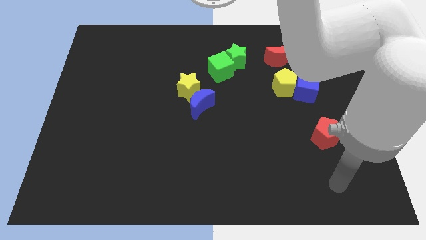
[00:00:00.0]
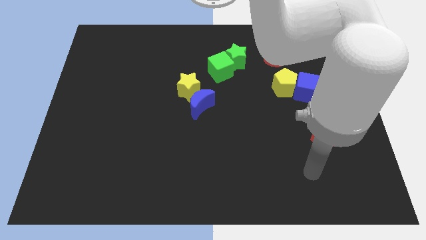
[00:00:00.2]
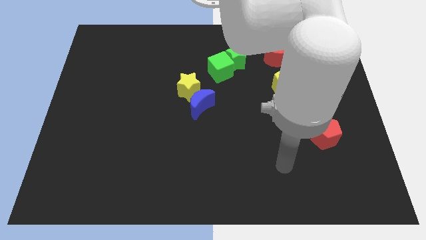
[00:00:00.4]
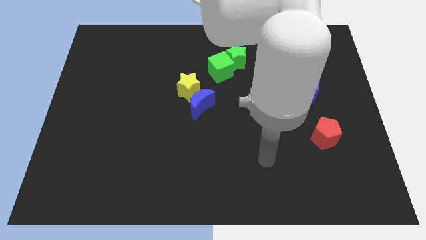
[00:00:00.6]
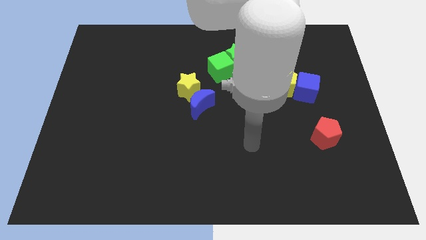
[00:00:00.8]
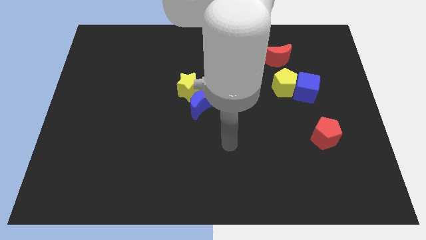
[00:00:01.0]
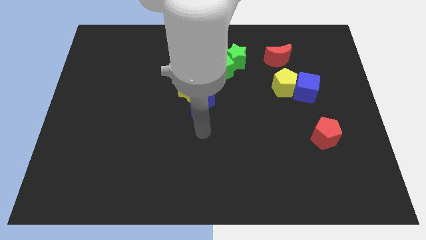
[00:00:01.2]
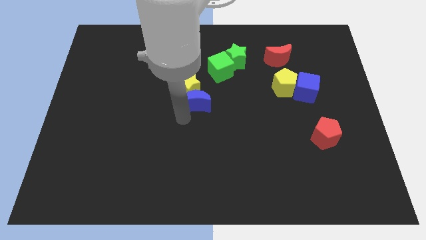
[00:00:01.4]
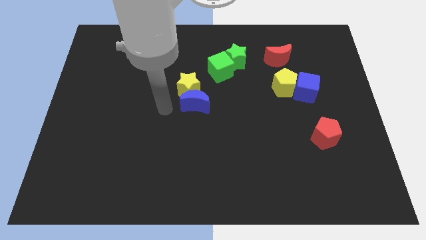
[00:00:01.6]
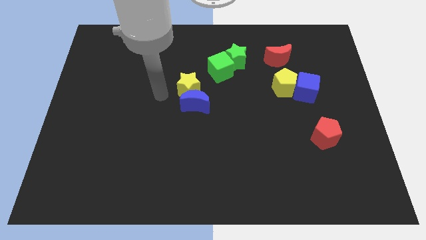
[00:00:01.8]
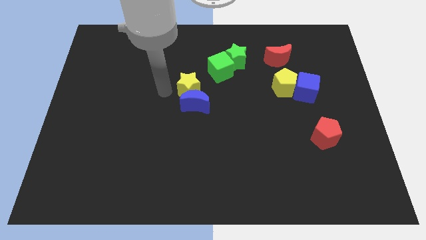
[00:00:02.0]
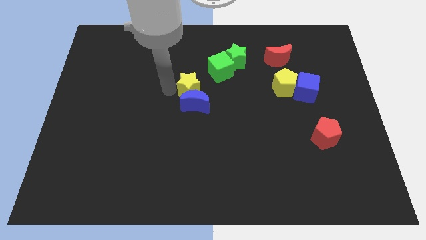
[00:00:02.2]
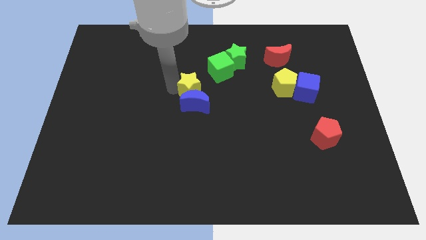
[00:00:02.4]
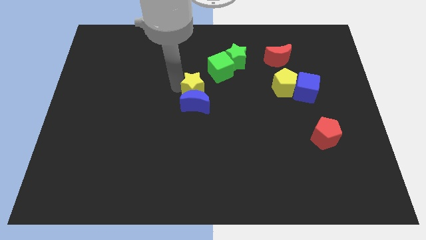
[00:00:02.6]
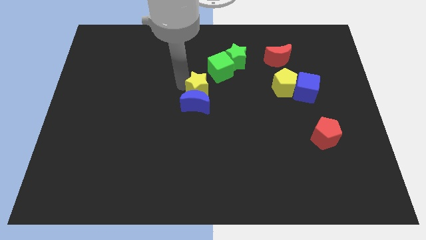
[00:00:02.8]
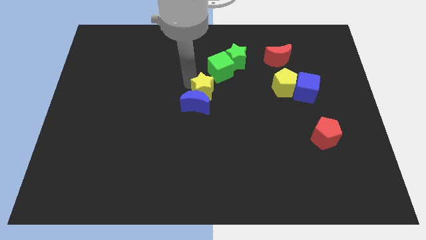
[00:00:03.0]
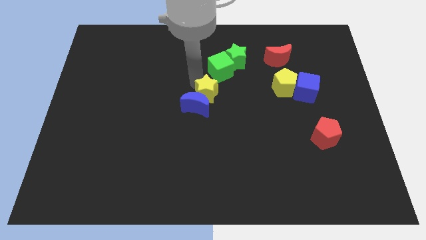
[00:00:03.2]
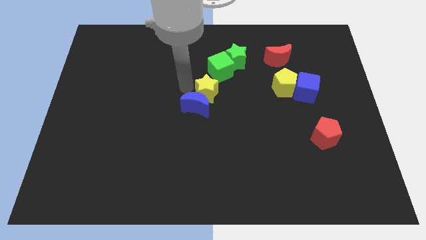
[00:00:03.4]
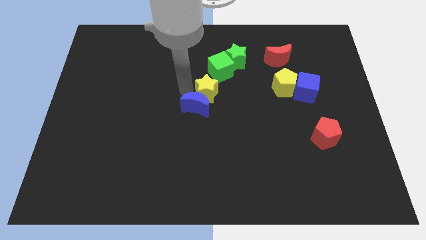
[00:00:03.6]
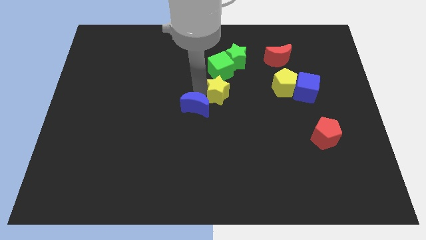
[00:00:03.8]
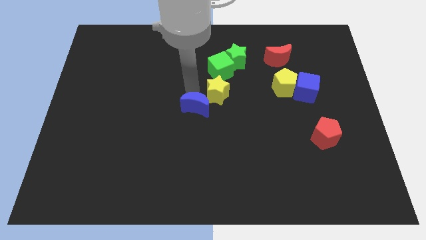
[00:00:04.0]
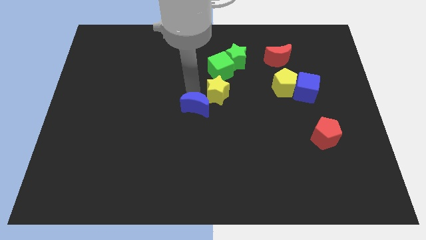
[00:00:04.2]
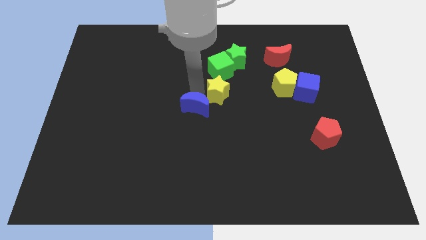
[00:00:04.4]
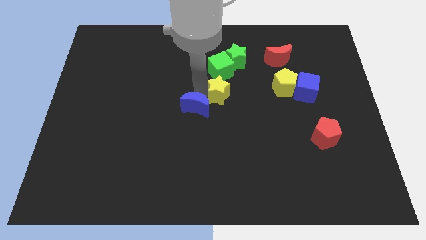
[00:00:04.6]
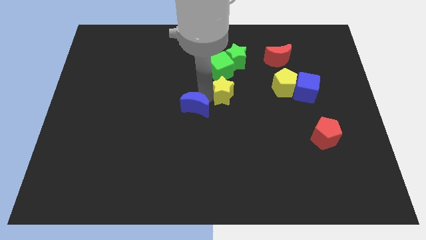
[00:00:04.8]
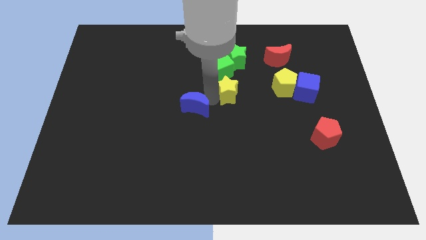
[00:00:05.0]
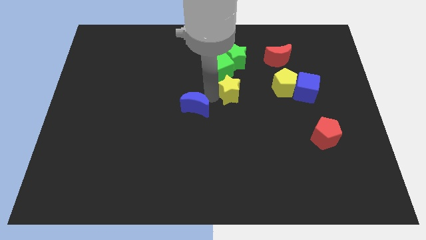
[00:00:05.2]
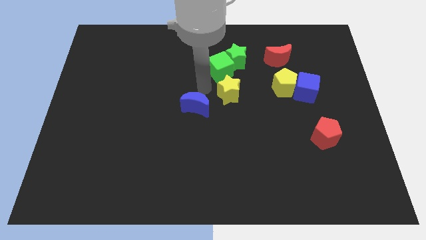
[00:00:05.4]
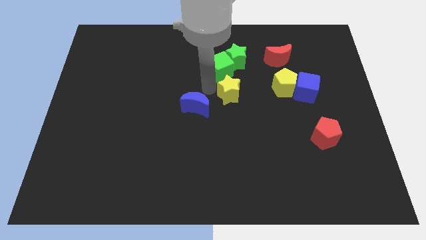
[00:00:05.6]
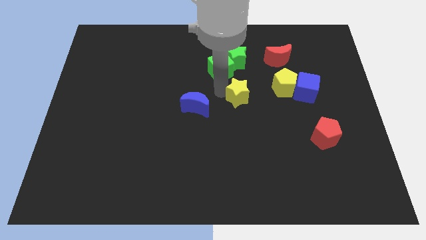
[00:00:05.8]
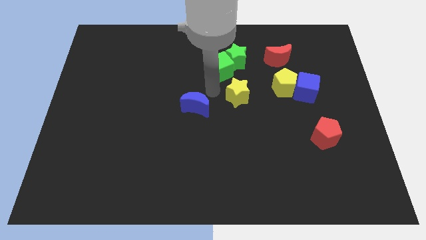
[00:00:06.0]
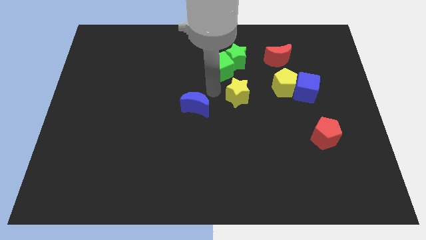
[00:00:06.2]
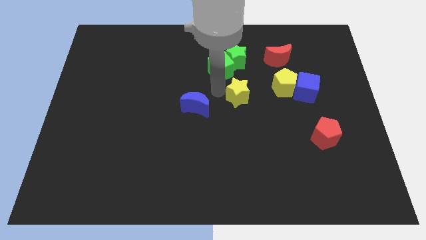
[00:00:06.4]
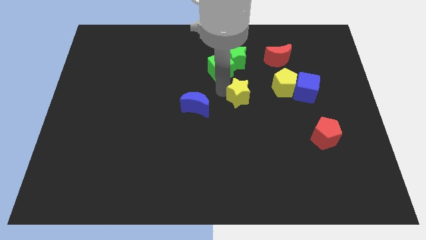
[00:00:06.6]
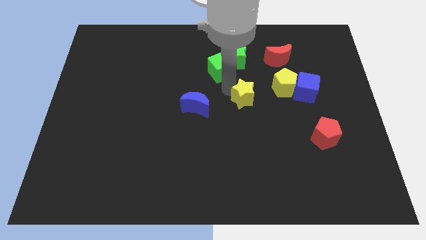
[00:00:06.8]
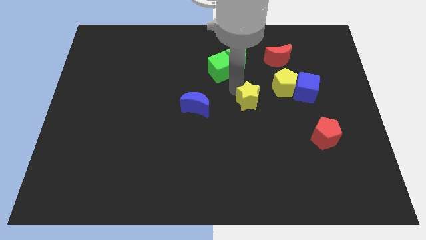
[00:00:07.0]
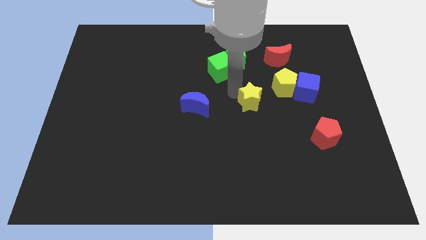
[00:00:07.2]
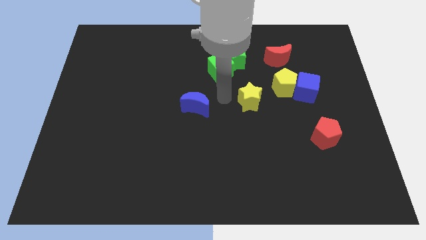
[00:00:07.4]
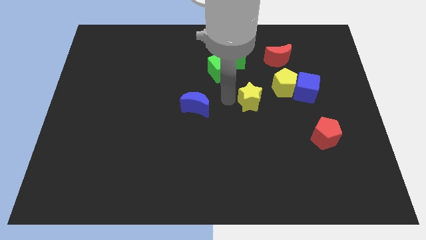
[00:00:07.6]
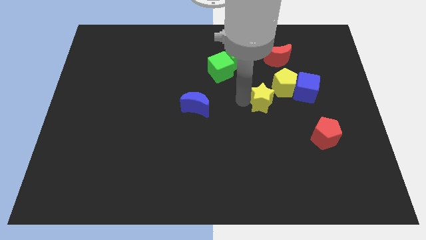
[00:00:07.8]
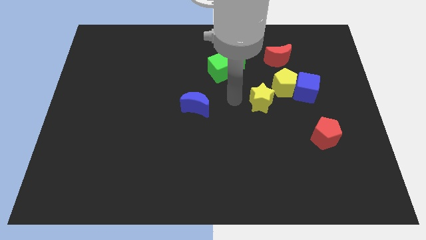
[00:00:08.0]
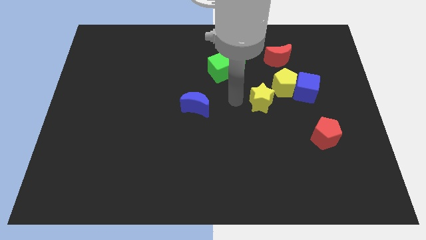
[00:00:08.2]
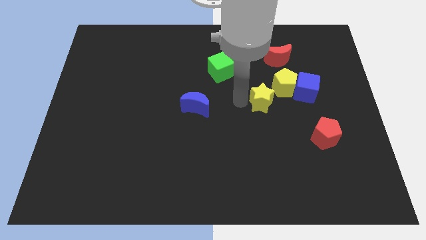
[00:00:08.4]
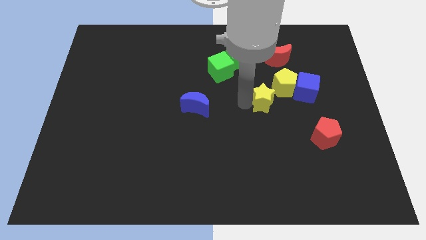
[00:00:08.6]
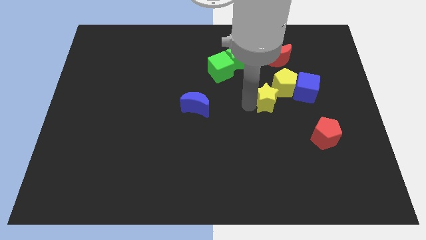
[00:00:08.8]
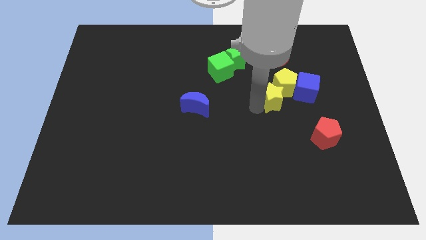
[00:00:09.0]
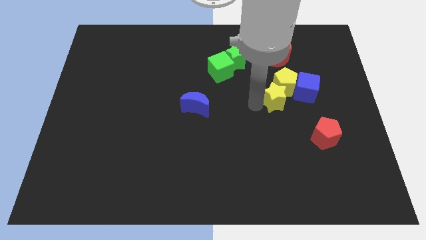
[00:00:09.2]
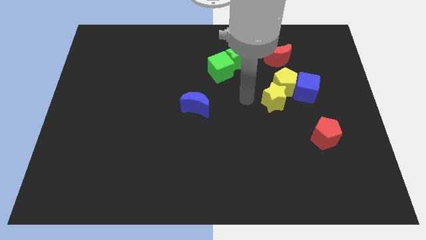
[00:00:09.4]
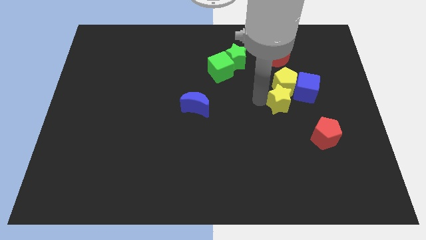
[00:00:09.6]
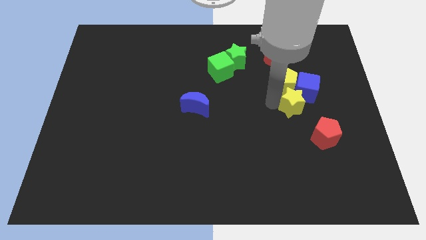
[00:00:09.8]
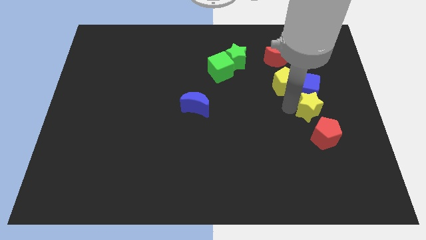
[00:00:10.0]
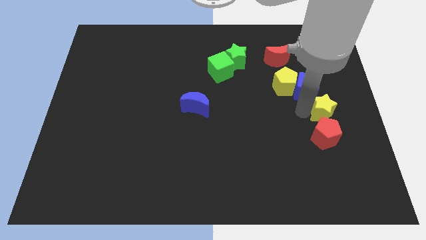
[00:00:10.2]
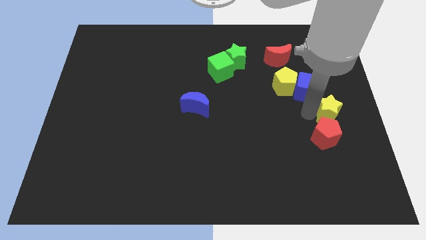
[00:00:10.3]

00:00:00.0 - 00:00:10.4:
put the yellow star to the right side

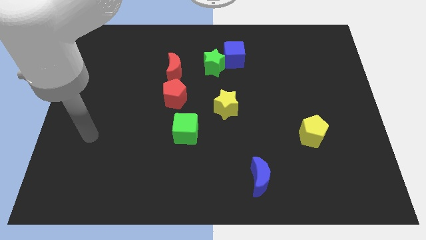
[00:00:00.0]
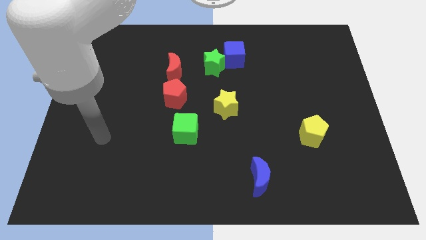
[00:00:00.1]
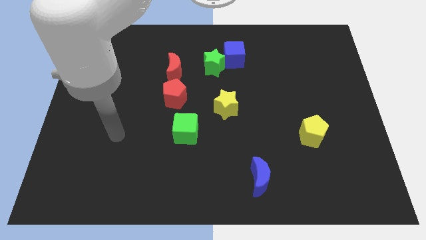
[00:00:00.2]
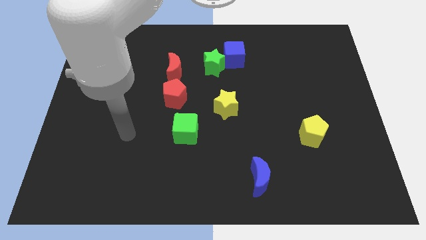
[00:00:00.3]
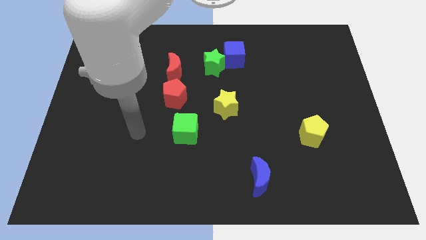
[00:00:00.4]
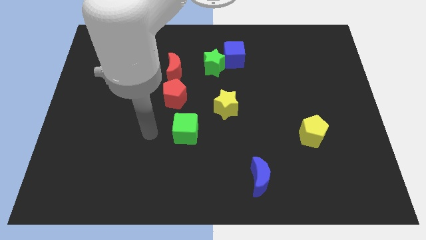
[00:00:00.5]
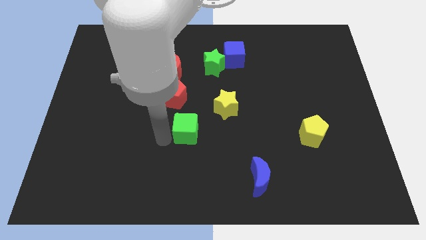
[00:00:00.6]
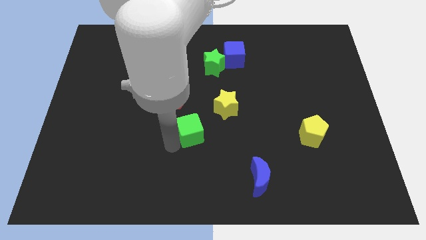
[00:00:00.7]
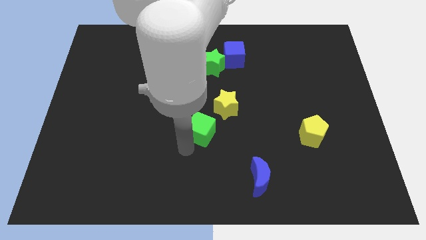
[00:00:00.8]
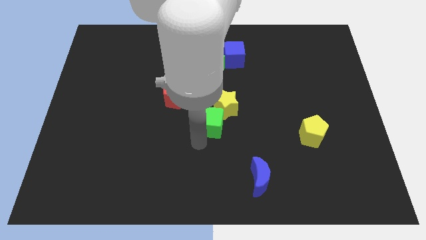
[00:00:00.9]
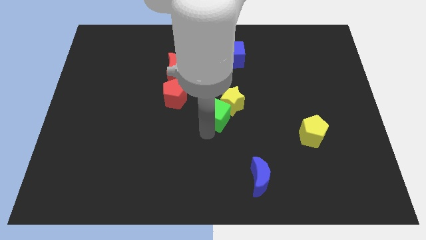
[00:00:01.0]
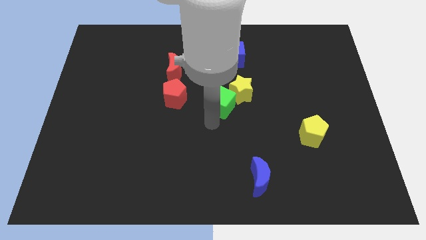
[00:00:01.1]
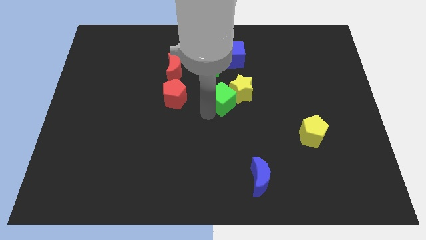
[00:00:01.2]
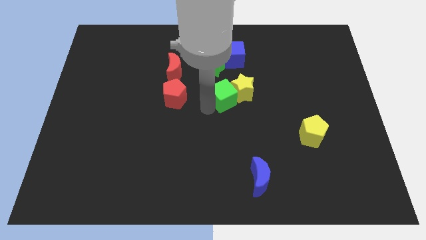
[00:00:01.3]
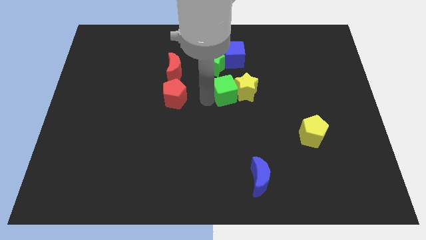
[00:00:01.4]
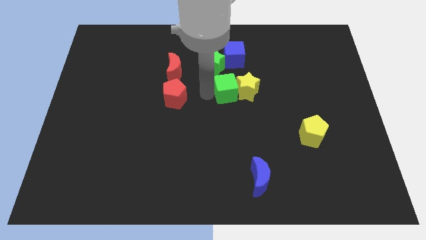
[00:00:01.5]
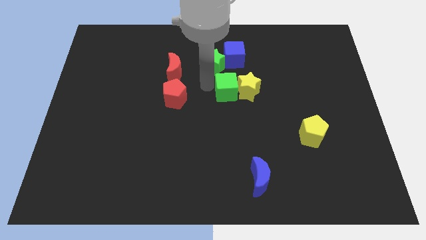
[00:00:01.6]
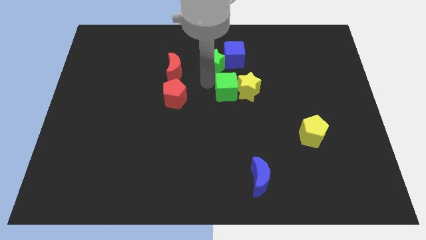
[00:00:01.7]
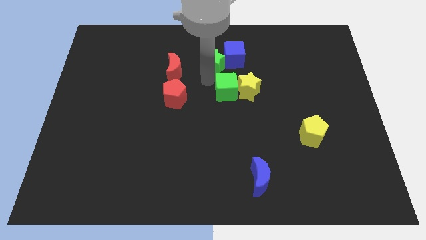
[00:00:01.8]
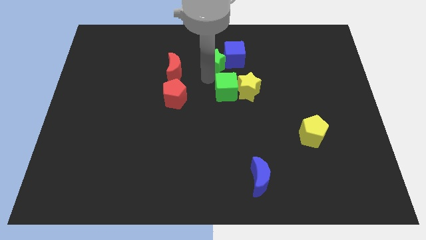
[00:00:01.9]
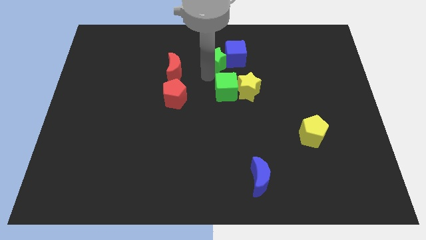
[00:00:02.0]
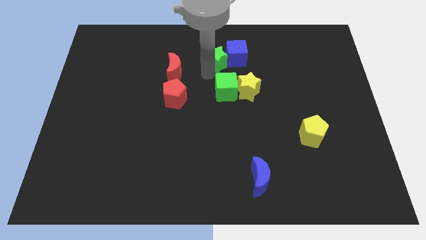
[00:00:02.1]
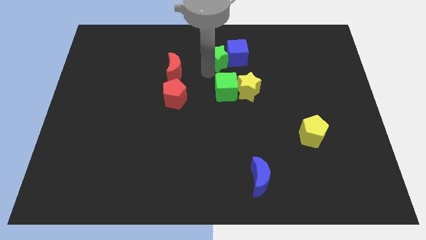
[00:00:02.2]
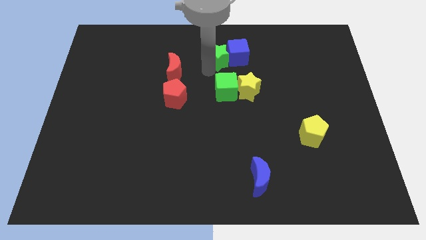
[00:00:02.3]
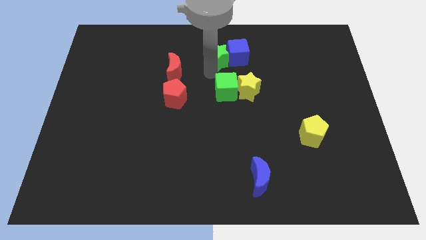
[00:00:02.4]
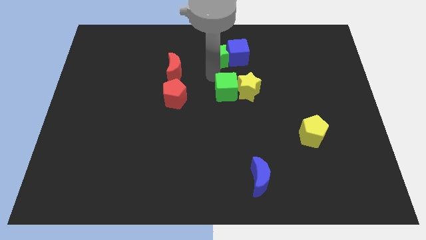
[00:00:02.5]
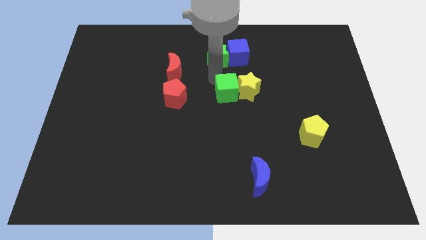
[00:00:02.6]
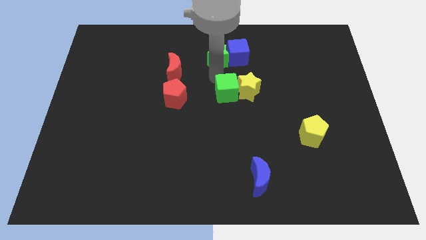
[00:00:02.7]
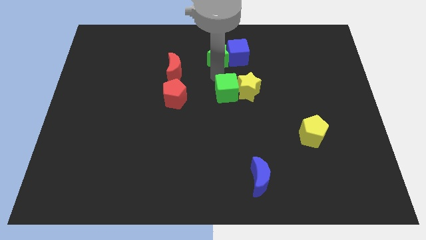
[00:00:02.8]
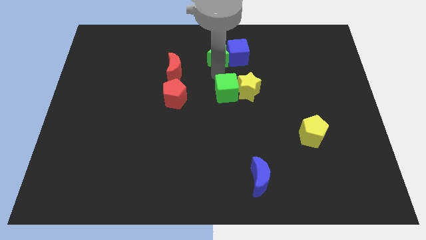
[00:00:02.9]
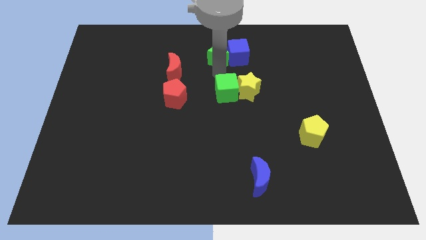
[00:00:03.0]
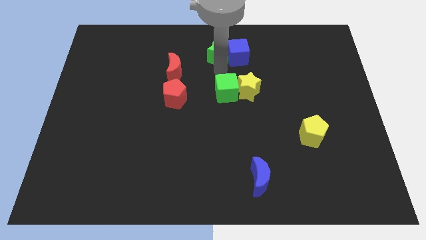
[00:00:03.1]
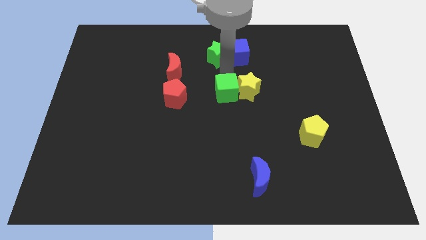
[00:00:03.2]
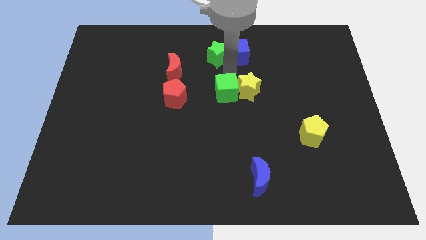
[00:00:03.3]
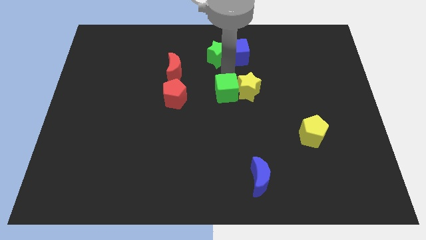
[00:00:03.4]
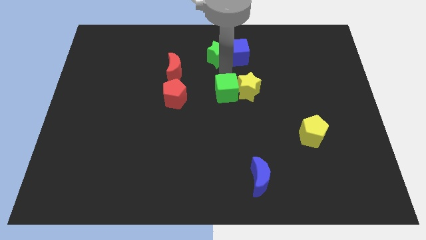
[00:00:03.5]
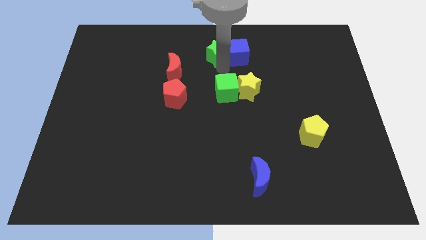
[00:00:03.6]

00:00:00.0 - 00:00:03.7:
put the green star to the towards your base
